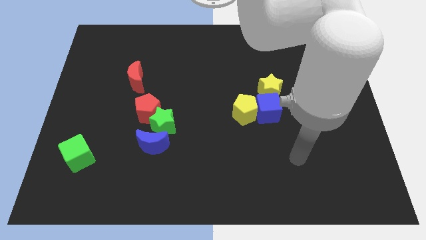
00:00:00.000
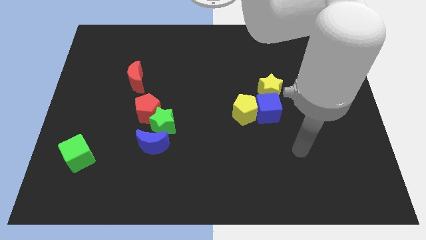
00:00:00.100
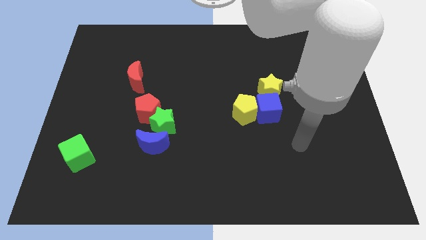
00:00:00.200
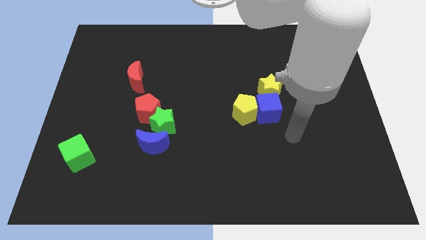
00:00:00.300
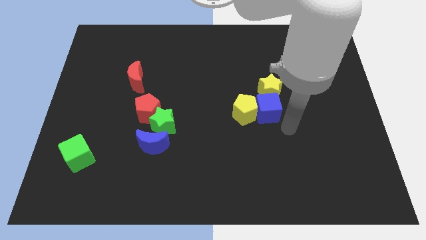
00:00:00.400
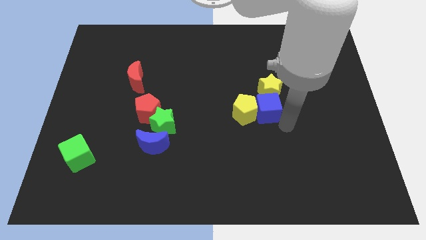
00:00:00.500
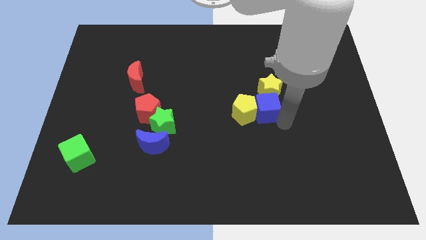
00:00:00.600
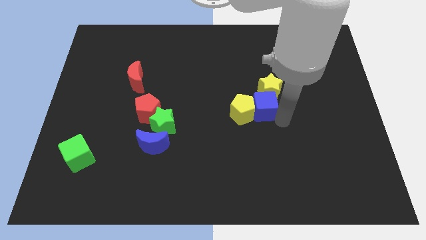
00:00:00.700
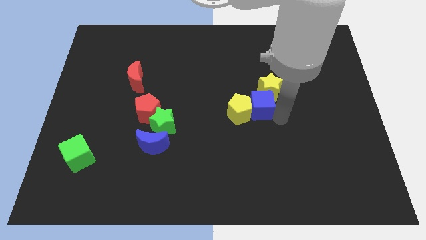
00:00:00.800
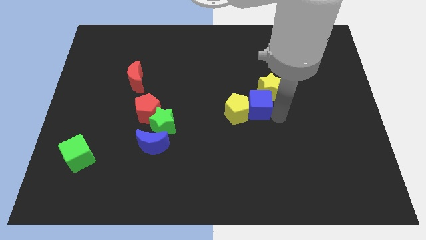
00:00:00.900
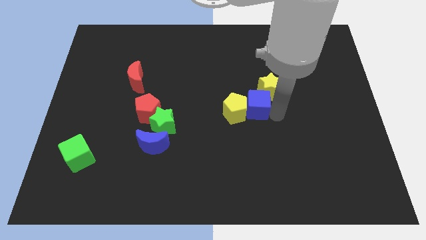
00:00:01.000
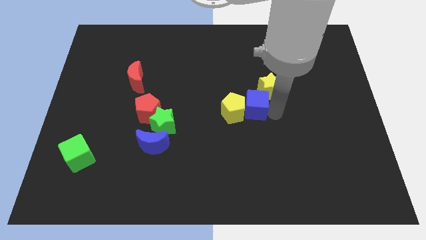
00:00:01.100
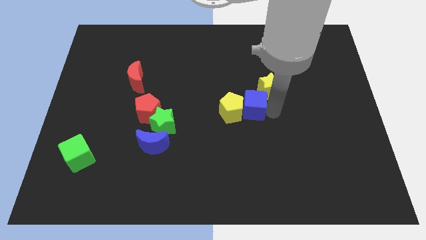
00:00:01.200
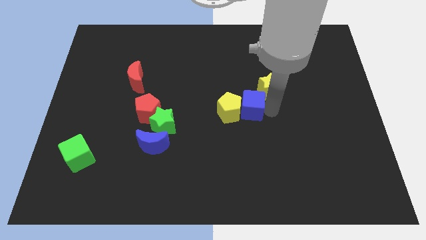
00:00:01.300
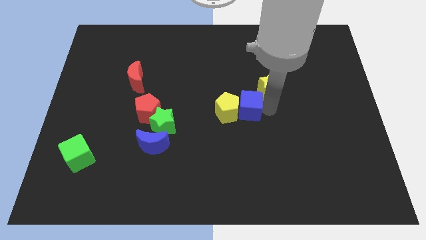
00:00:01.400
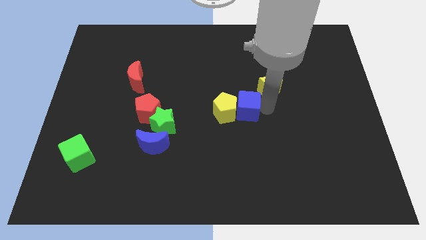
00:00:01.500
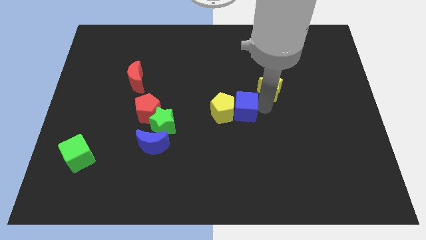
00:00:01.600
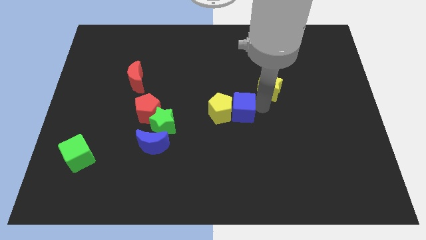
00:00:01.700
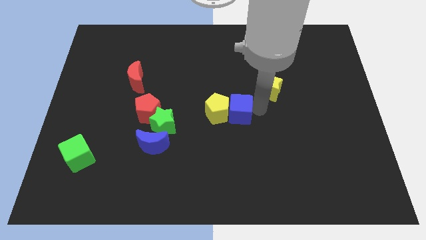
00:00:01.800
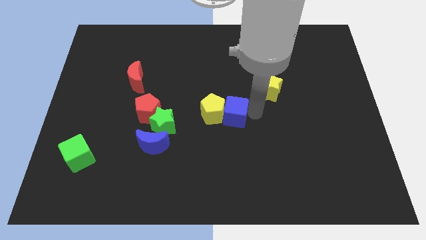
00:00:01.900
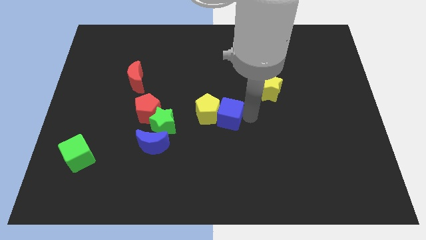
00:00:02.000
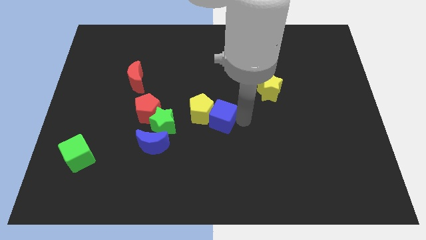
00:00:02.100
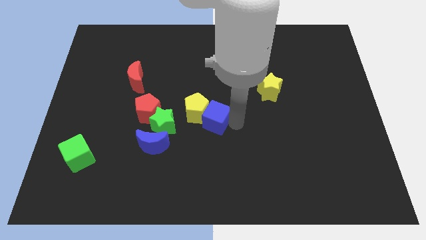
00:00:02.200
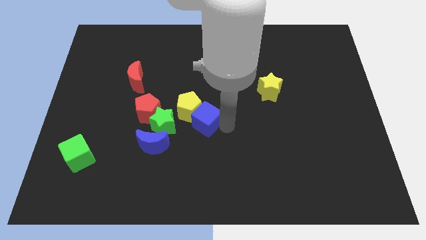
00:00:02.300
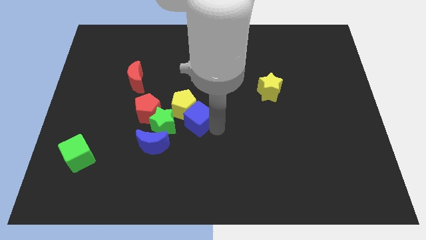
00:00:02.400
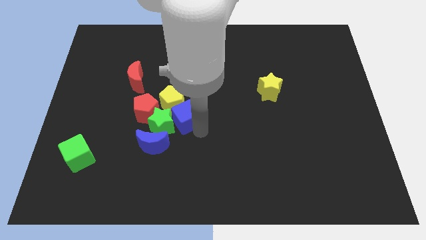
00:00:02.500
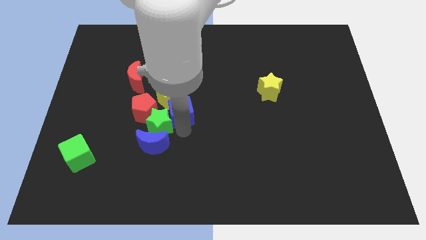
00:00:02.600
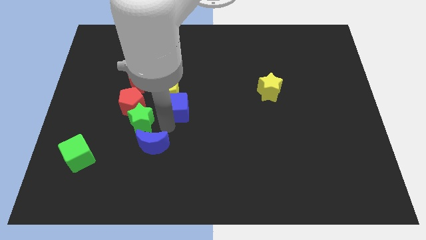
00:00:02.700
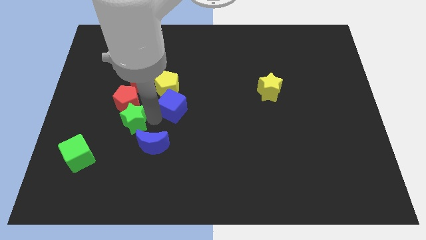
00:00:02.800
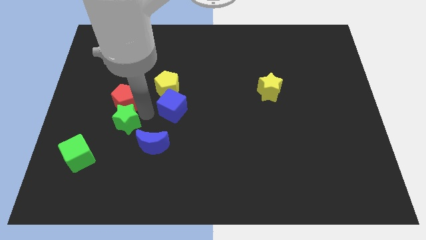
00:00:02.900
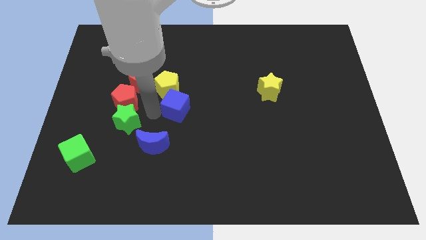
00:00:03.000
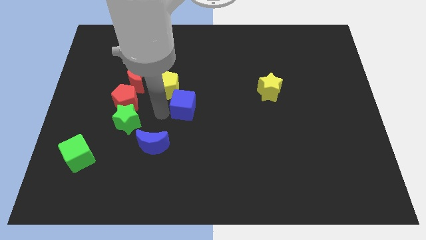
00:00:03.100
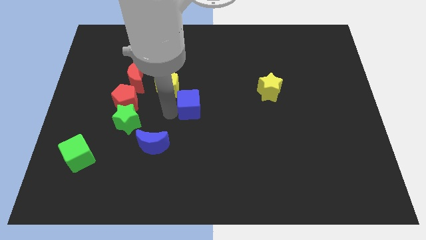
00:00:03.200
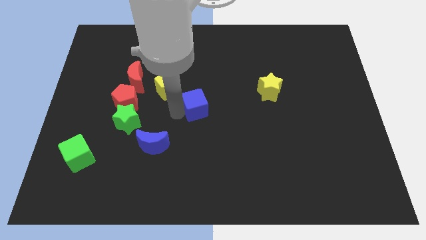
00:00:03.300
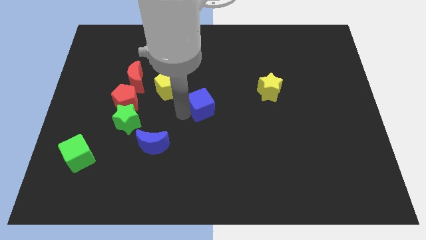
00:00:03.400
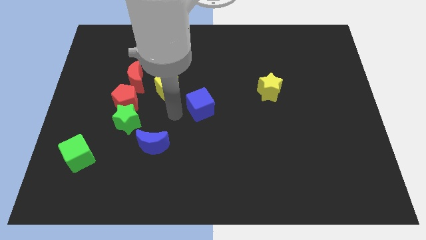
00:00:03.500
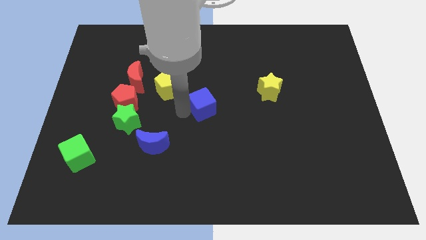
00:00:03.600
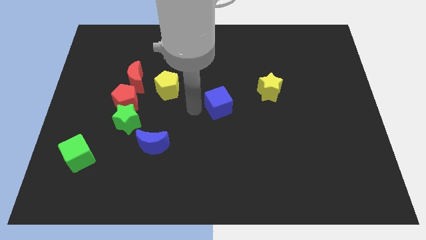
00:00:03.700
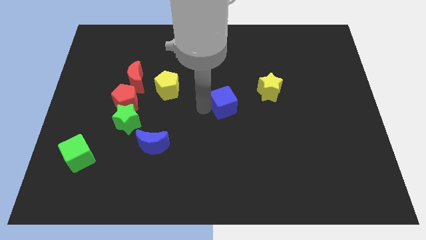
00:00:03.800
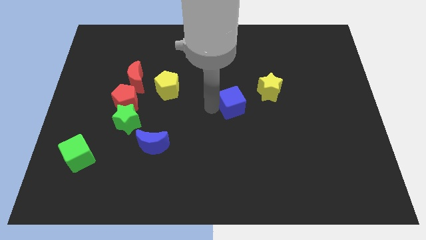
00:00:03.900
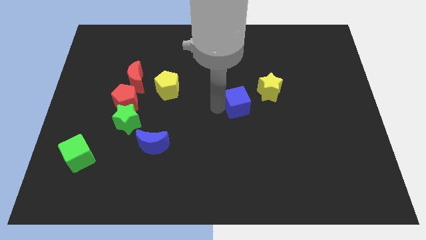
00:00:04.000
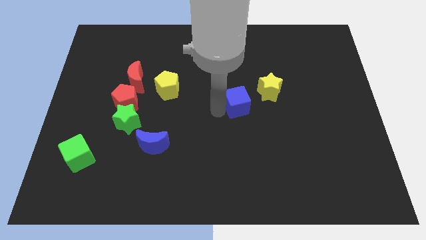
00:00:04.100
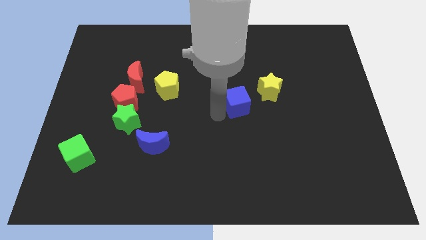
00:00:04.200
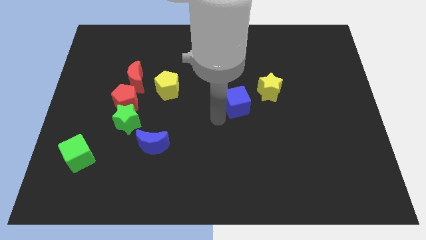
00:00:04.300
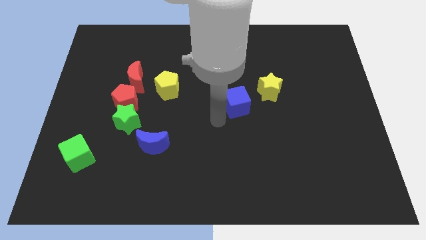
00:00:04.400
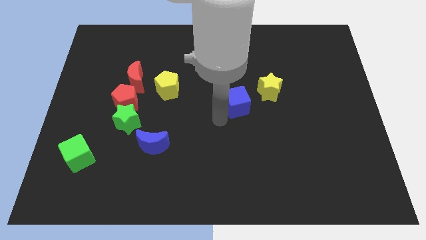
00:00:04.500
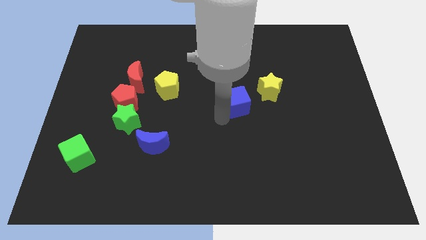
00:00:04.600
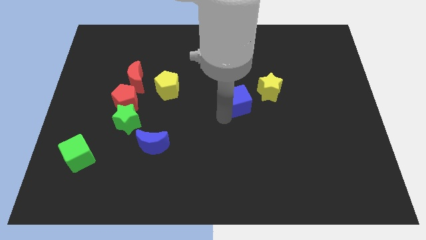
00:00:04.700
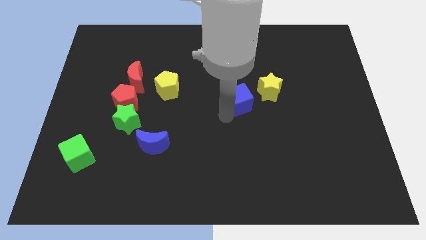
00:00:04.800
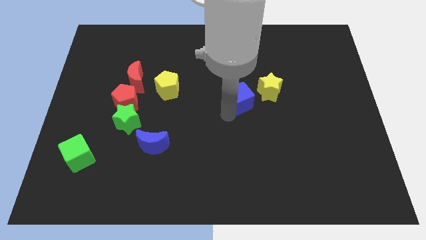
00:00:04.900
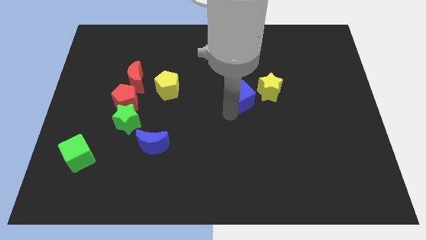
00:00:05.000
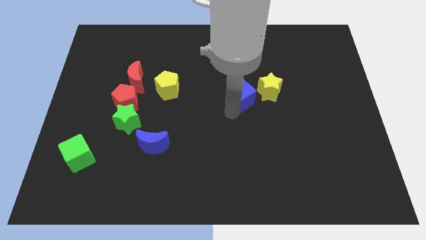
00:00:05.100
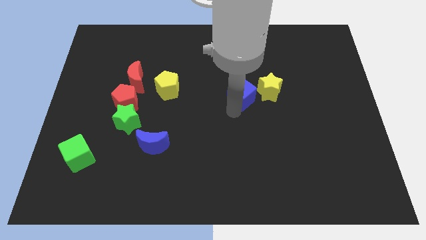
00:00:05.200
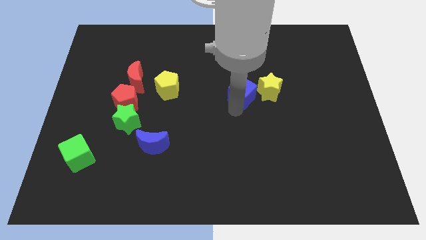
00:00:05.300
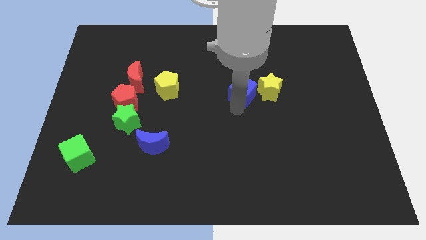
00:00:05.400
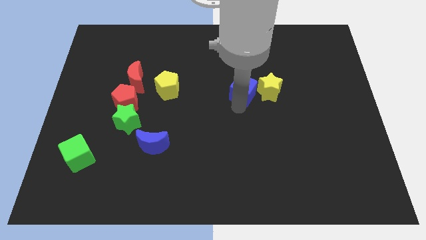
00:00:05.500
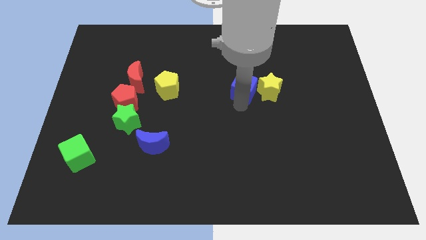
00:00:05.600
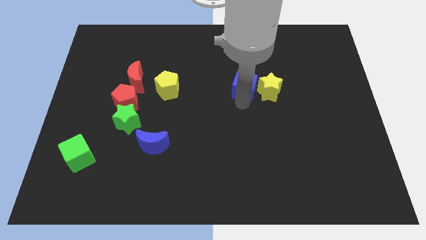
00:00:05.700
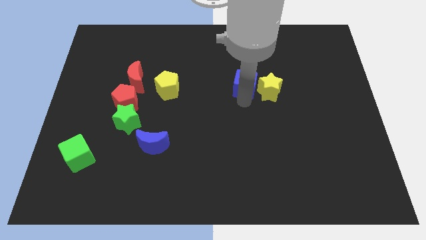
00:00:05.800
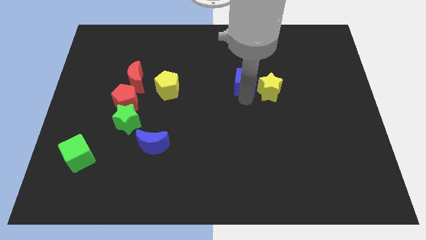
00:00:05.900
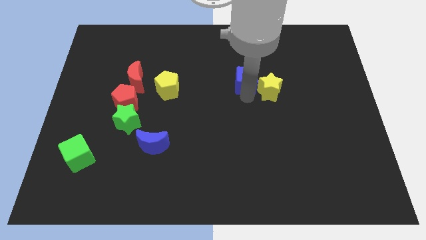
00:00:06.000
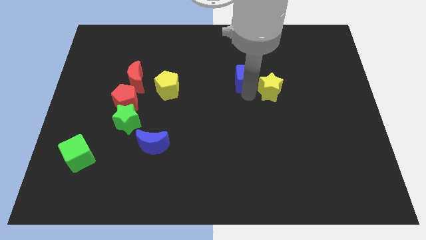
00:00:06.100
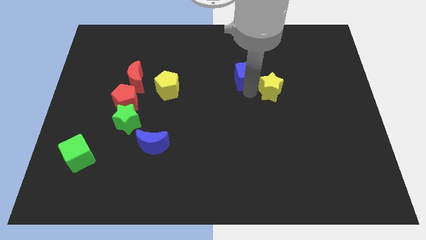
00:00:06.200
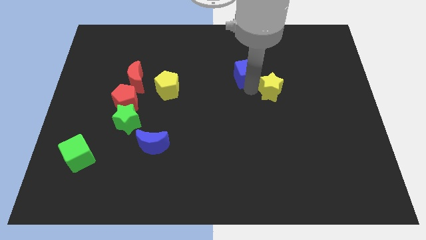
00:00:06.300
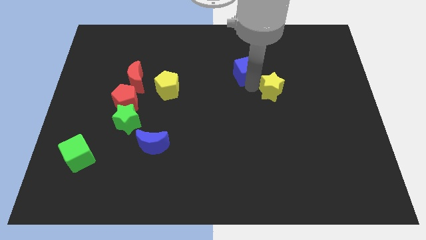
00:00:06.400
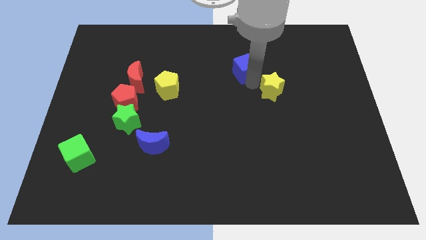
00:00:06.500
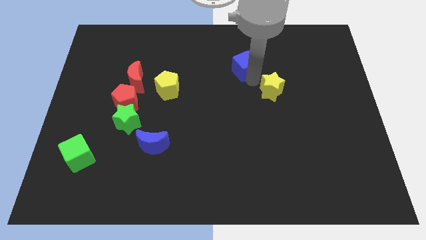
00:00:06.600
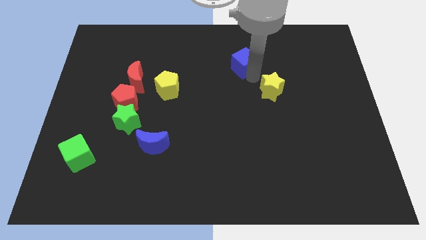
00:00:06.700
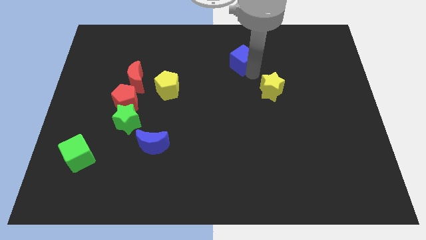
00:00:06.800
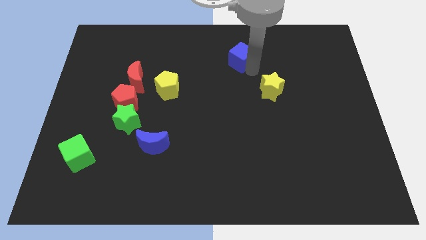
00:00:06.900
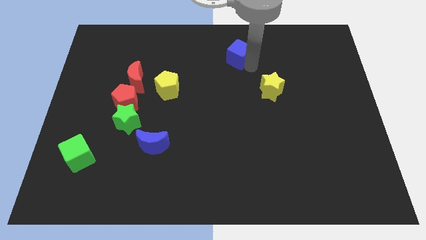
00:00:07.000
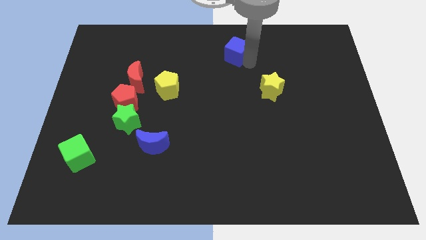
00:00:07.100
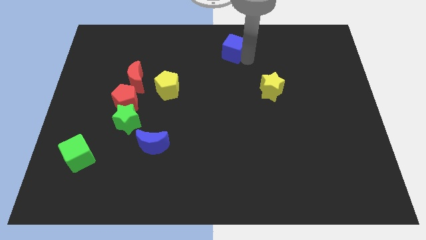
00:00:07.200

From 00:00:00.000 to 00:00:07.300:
push the blue cube to the towards your base
